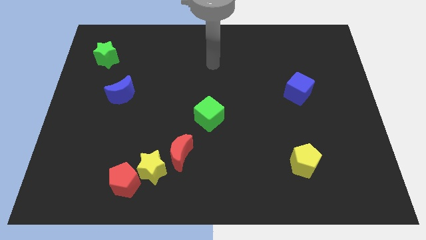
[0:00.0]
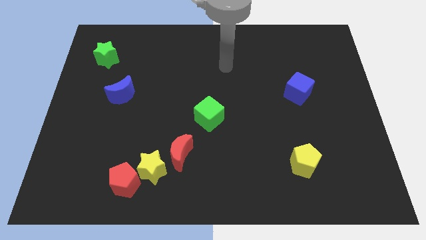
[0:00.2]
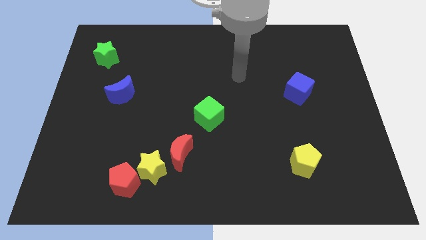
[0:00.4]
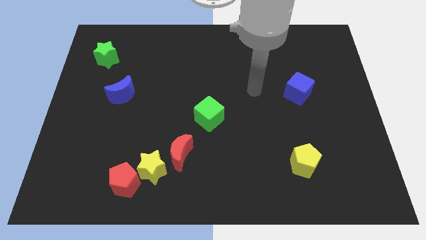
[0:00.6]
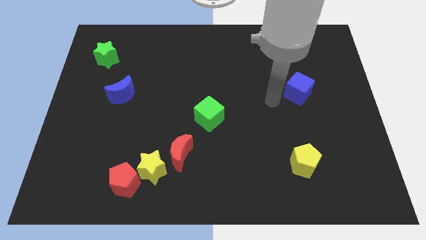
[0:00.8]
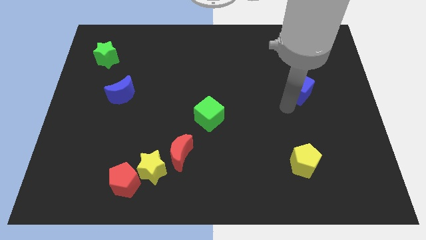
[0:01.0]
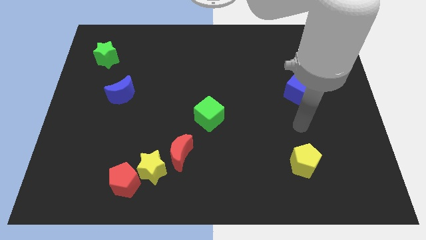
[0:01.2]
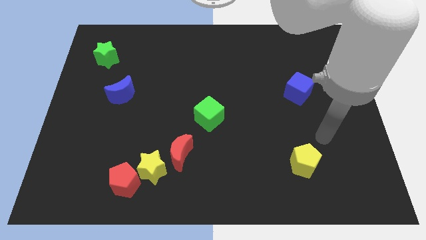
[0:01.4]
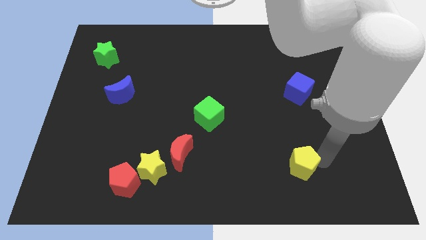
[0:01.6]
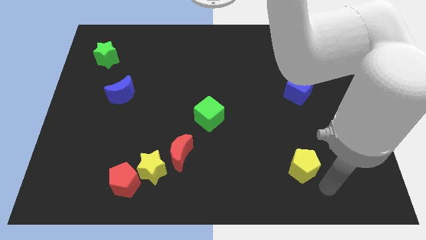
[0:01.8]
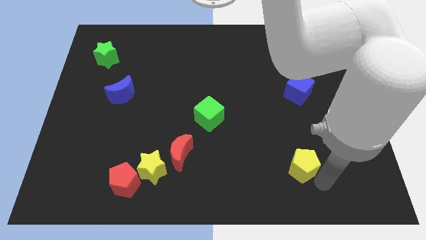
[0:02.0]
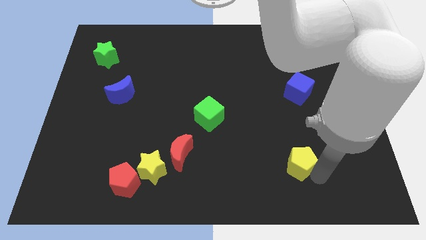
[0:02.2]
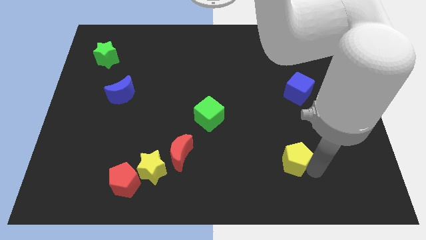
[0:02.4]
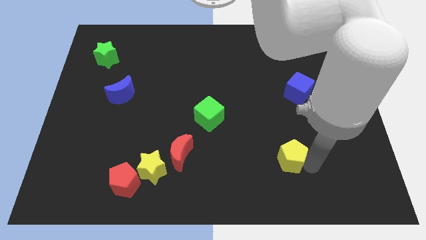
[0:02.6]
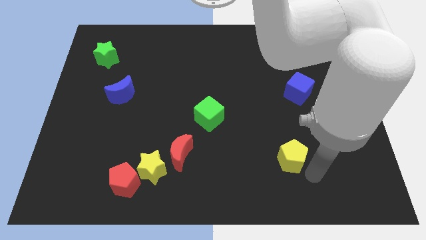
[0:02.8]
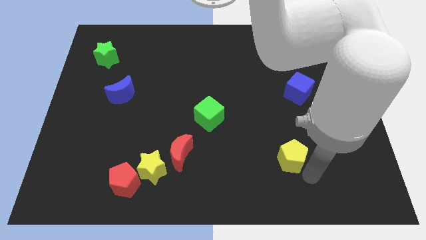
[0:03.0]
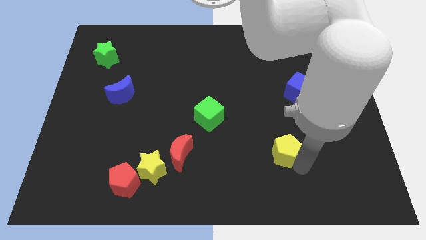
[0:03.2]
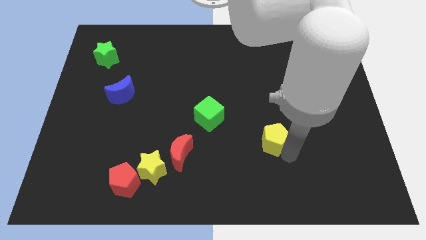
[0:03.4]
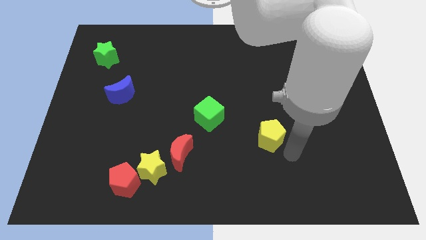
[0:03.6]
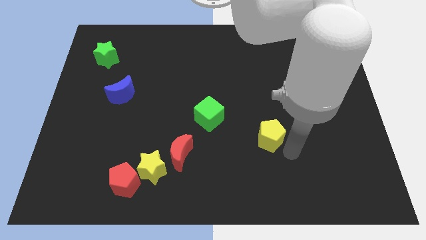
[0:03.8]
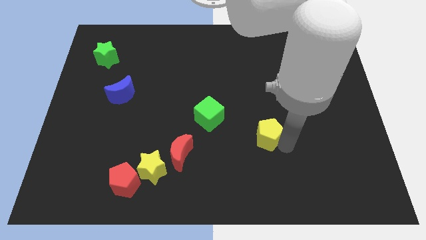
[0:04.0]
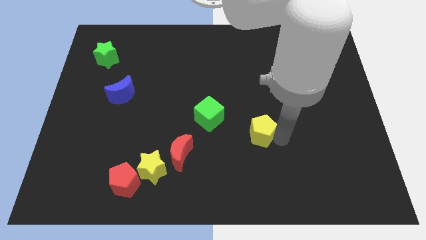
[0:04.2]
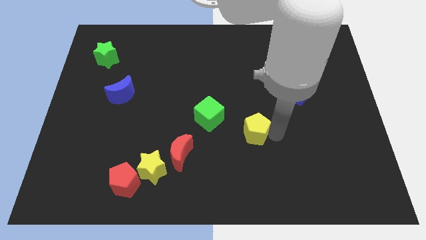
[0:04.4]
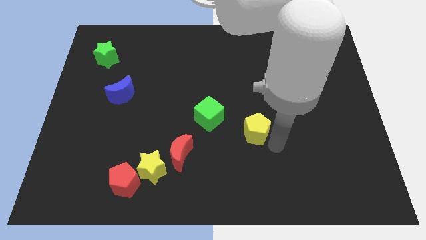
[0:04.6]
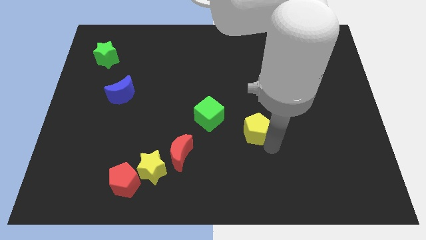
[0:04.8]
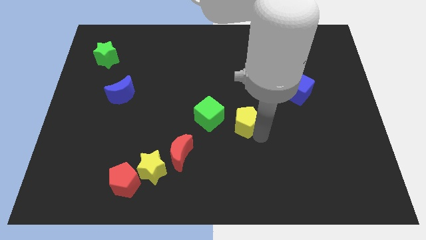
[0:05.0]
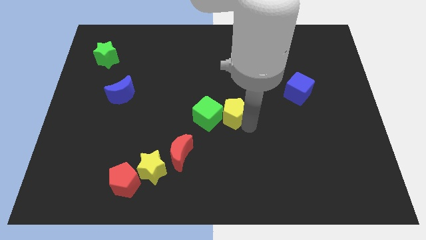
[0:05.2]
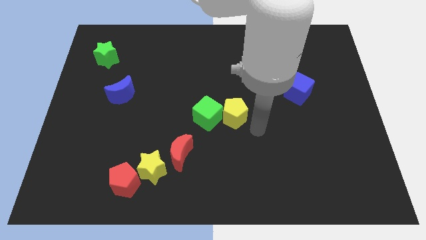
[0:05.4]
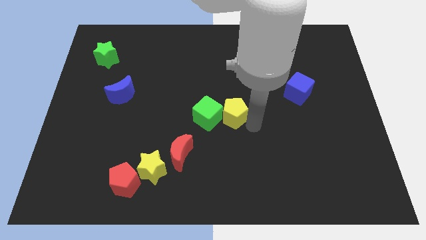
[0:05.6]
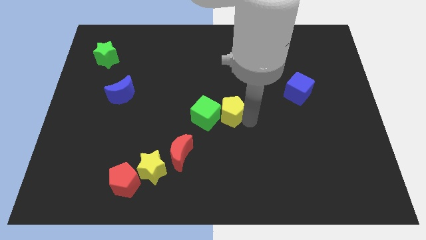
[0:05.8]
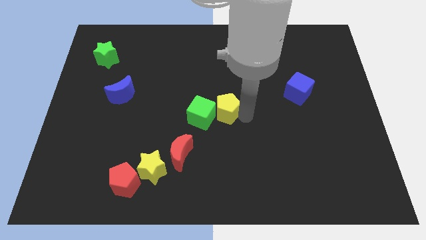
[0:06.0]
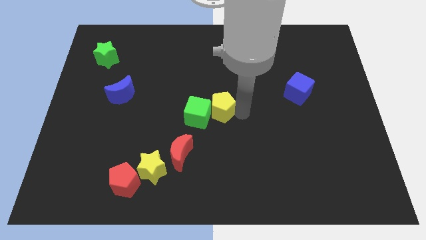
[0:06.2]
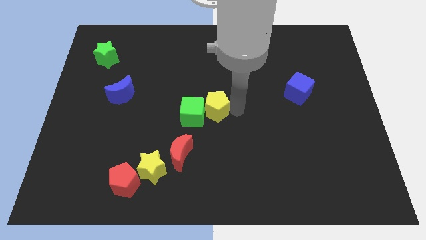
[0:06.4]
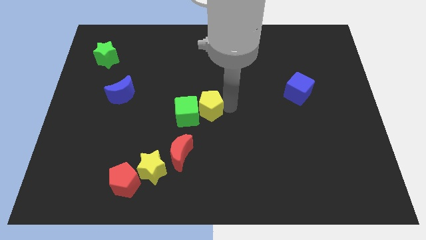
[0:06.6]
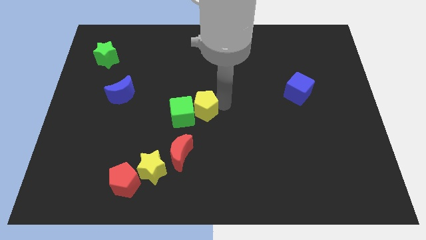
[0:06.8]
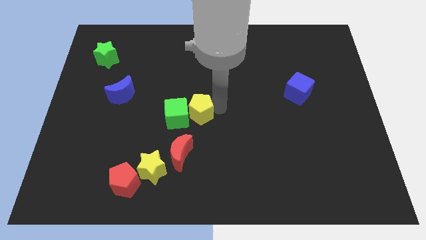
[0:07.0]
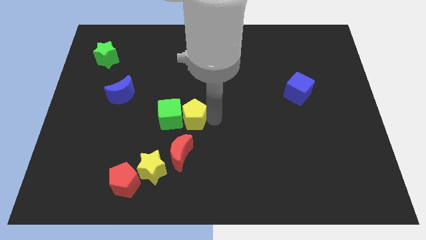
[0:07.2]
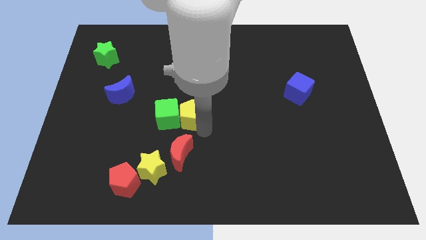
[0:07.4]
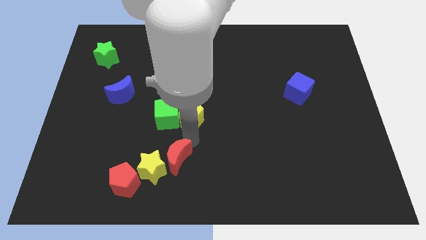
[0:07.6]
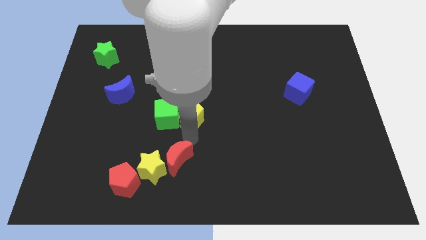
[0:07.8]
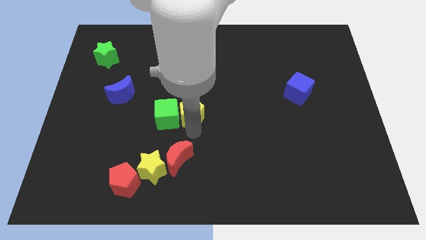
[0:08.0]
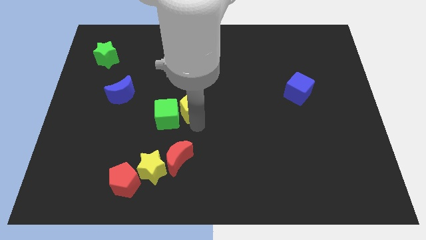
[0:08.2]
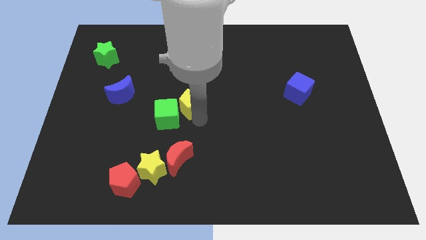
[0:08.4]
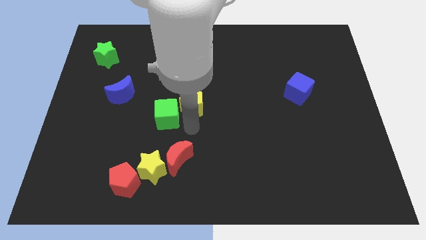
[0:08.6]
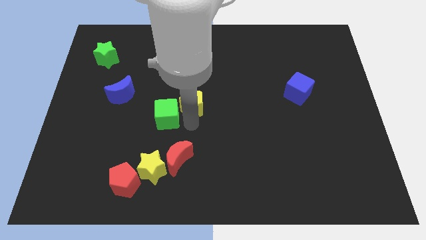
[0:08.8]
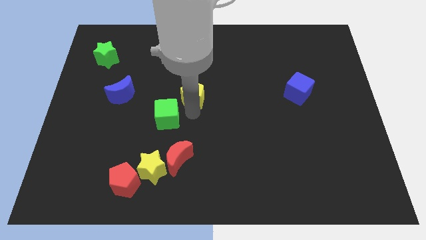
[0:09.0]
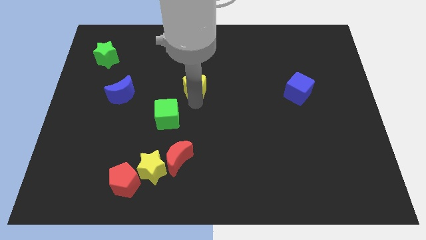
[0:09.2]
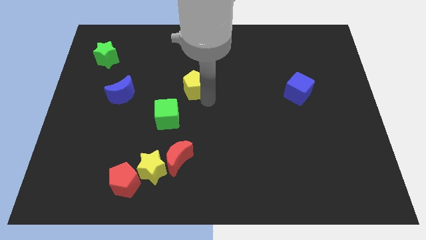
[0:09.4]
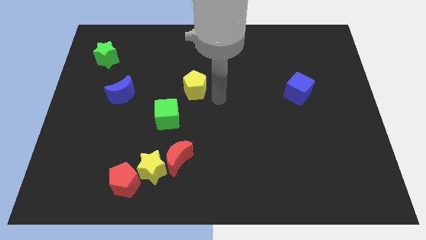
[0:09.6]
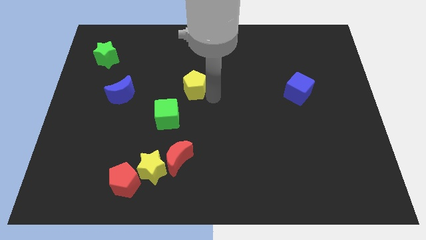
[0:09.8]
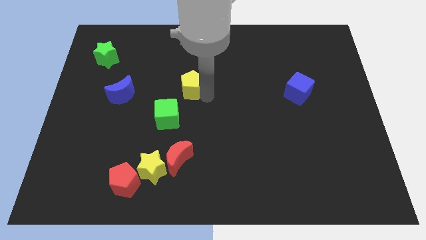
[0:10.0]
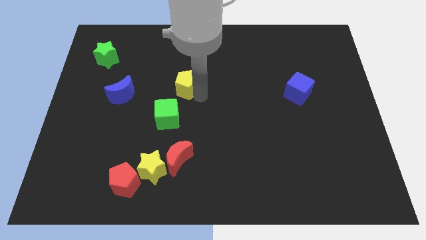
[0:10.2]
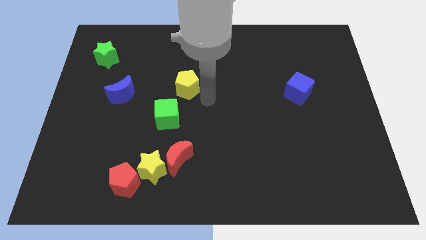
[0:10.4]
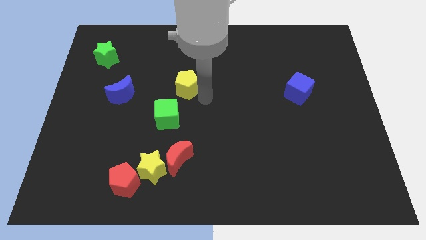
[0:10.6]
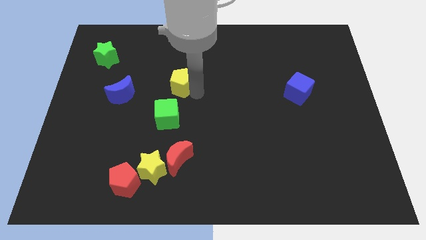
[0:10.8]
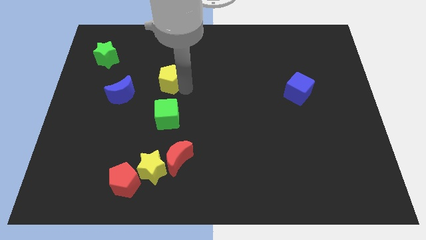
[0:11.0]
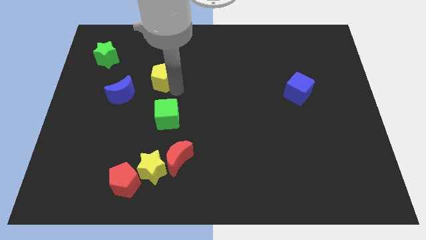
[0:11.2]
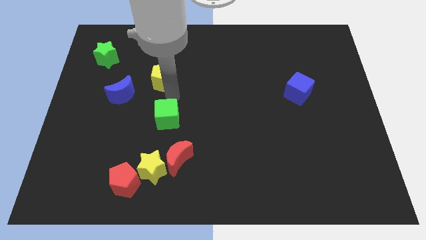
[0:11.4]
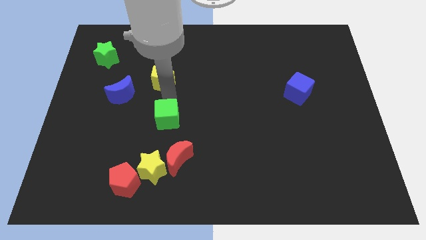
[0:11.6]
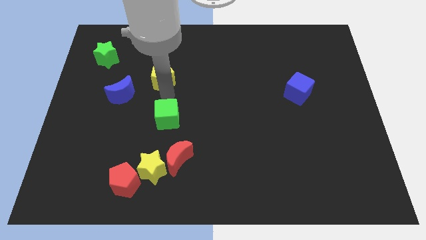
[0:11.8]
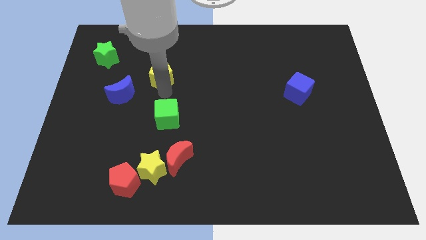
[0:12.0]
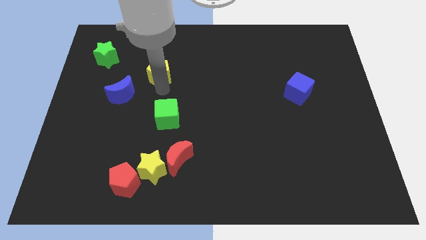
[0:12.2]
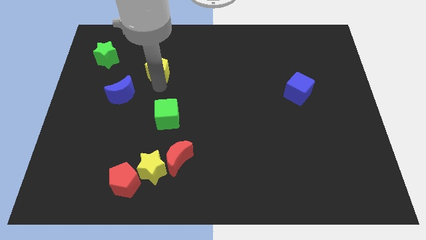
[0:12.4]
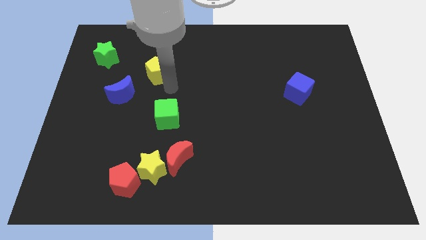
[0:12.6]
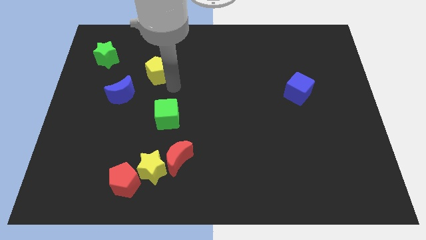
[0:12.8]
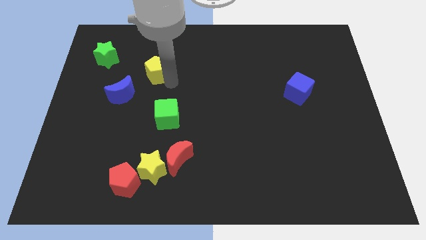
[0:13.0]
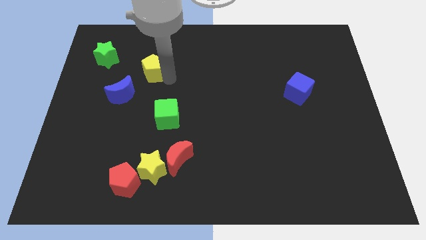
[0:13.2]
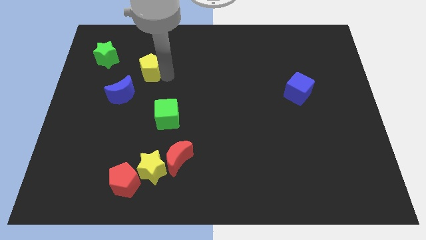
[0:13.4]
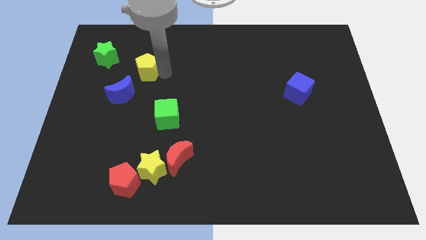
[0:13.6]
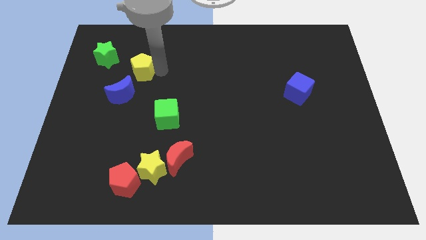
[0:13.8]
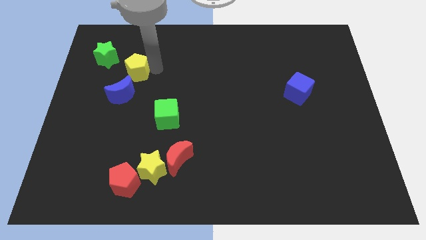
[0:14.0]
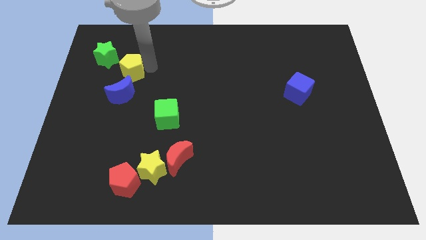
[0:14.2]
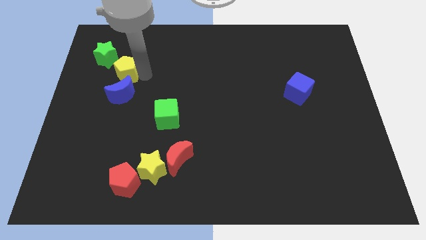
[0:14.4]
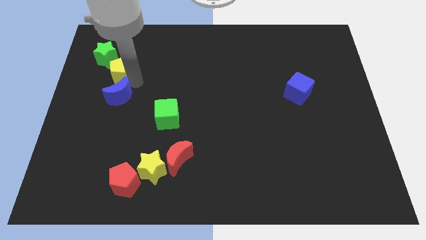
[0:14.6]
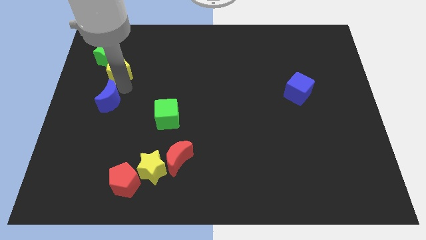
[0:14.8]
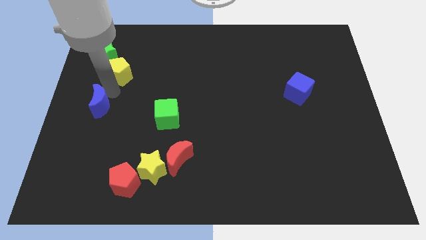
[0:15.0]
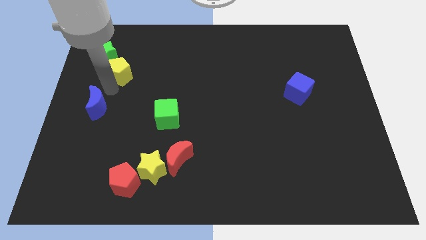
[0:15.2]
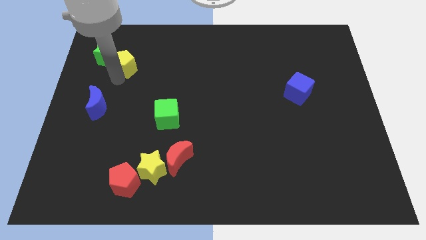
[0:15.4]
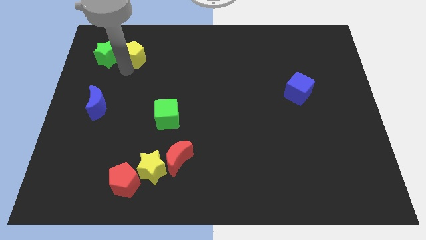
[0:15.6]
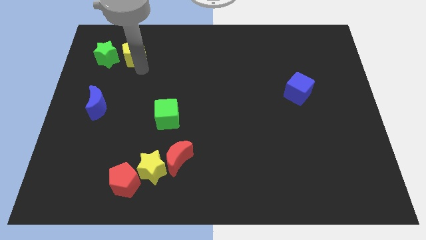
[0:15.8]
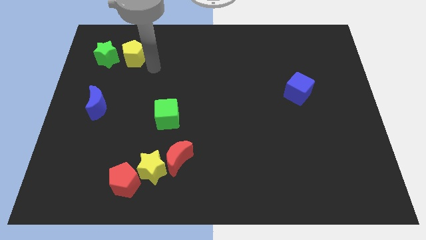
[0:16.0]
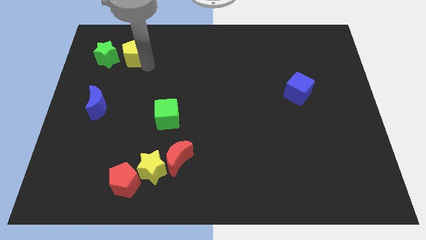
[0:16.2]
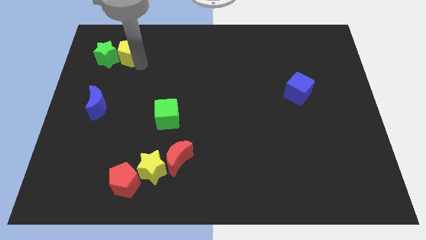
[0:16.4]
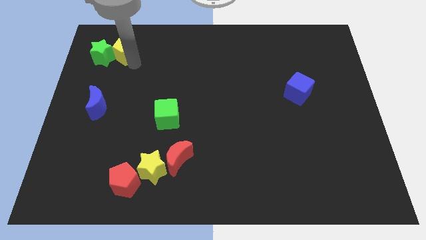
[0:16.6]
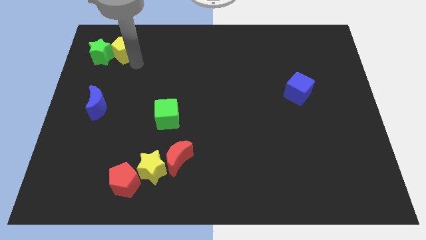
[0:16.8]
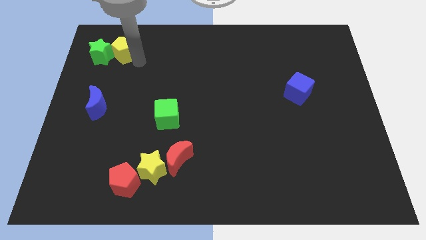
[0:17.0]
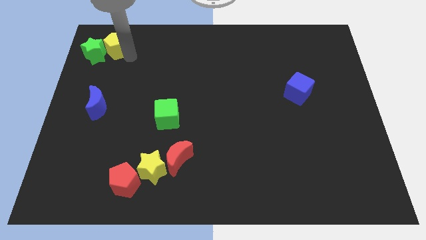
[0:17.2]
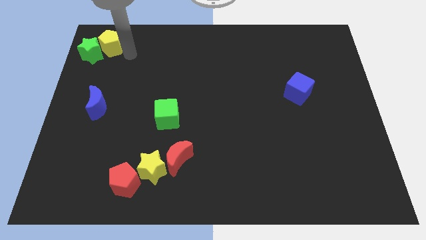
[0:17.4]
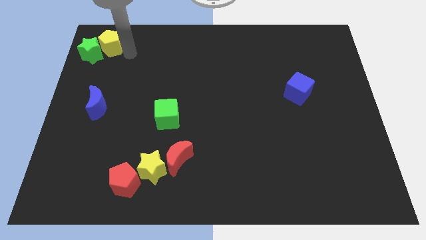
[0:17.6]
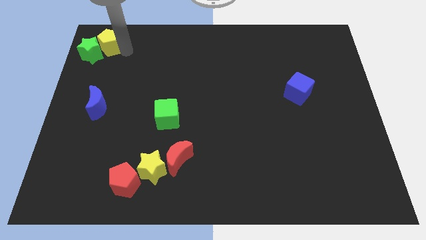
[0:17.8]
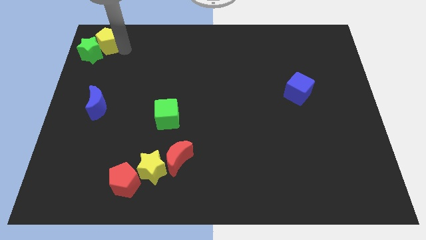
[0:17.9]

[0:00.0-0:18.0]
slide the yellow pentagon to the top left
